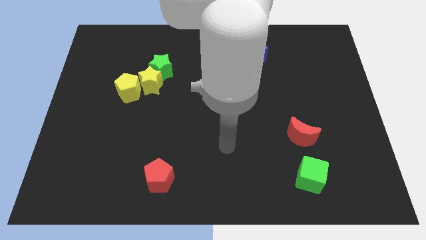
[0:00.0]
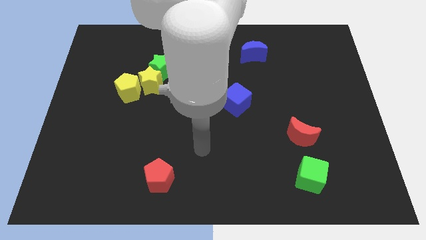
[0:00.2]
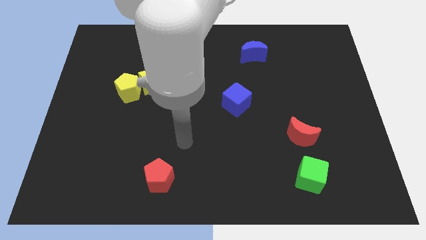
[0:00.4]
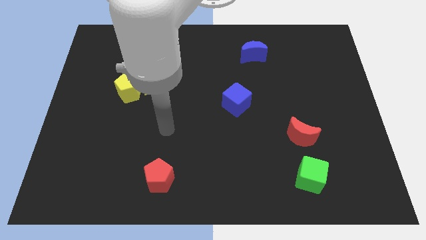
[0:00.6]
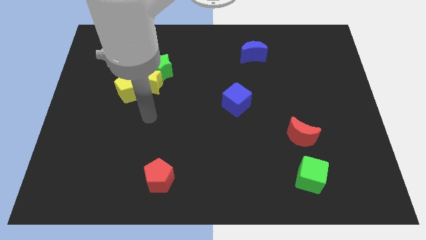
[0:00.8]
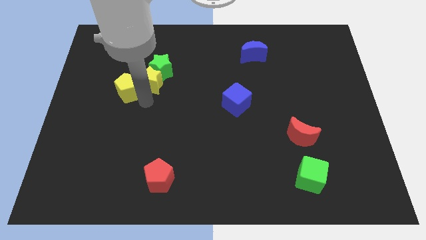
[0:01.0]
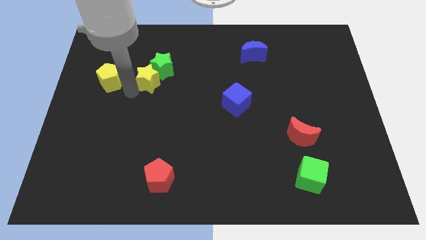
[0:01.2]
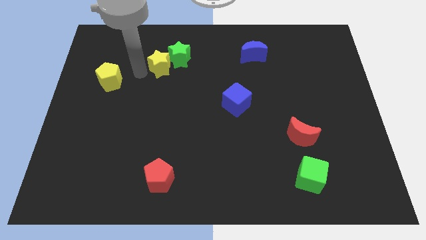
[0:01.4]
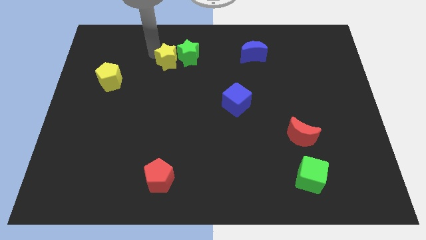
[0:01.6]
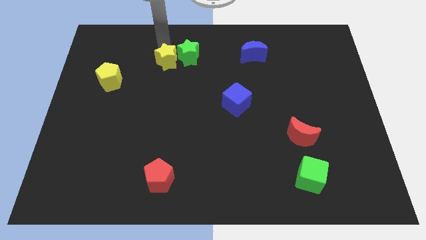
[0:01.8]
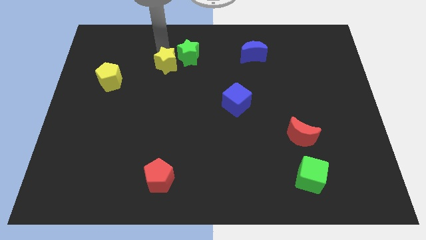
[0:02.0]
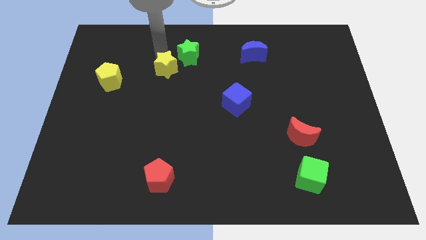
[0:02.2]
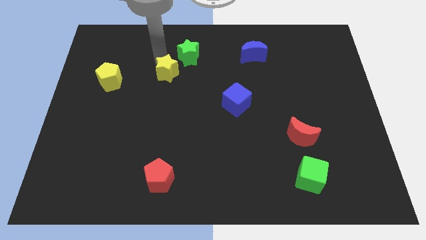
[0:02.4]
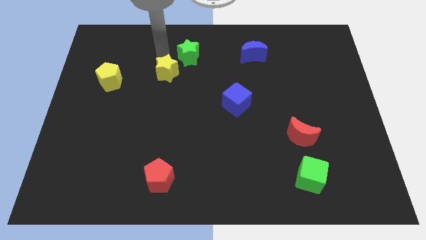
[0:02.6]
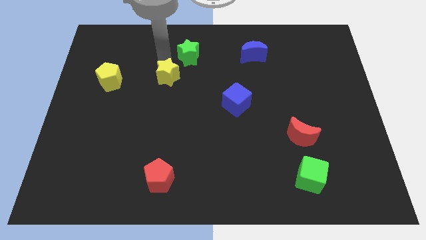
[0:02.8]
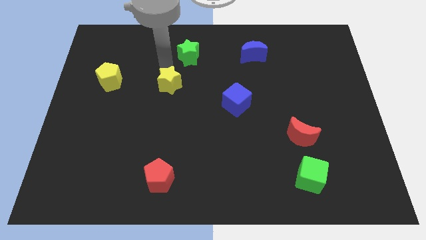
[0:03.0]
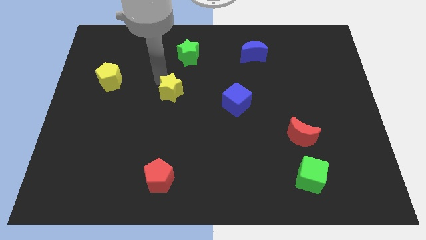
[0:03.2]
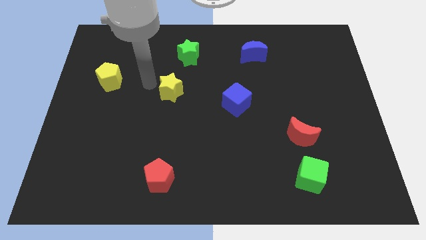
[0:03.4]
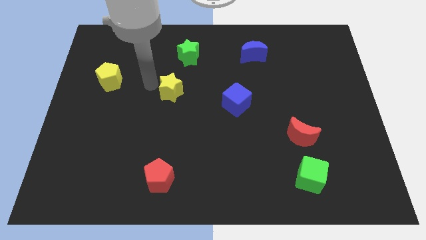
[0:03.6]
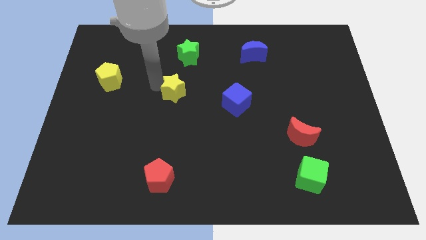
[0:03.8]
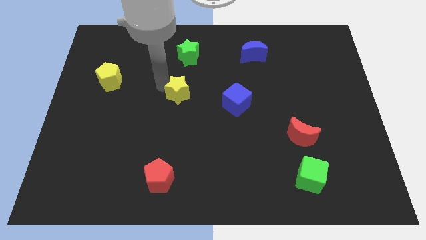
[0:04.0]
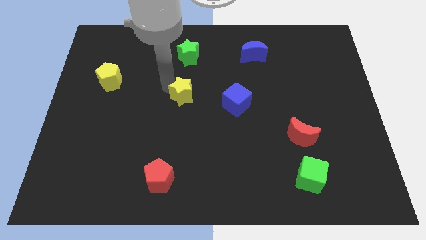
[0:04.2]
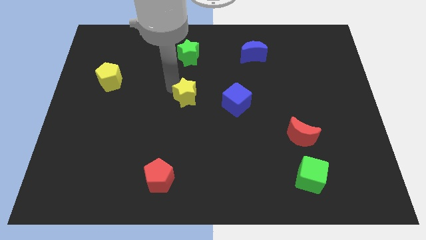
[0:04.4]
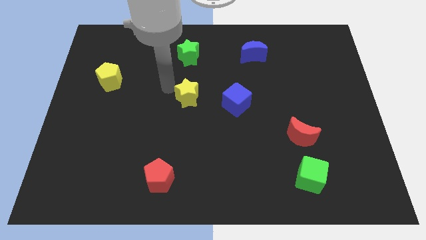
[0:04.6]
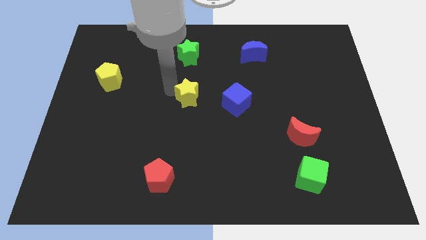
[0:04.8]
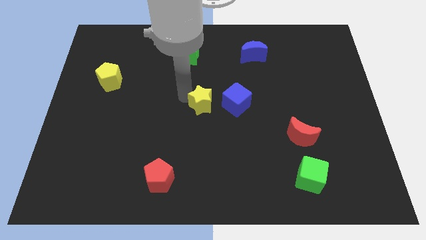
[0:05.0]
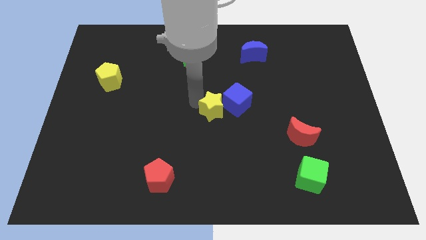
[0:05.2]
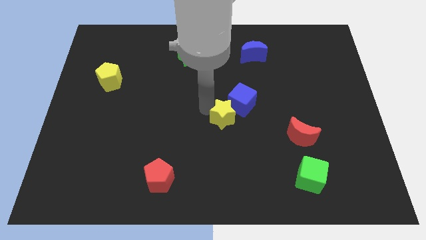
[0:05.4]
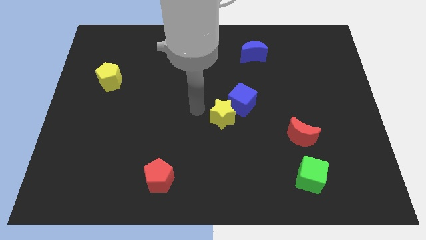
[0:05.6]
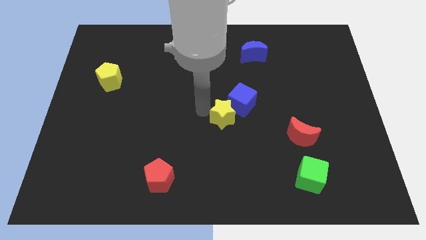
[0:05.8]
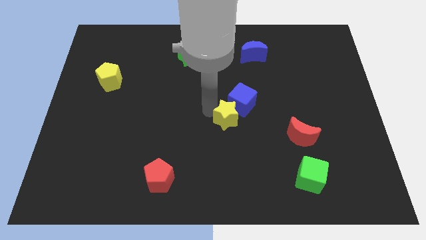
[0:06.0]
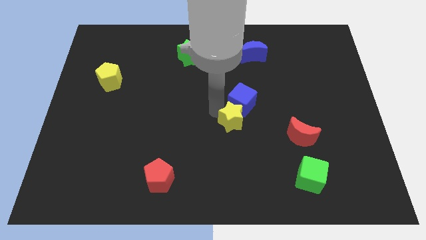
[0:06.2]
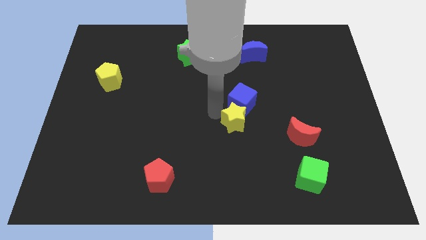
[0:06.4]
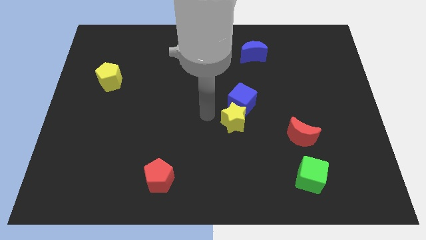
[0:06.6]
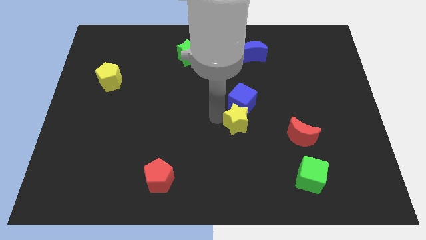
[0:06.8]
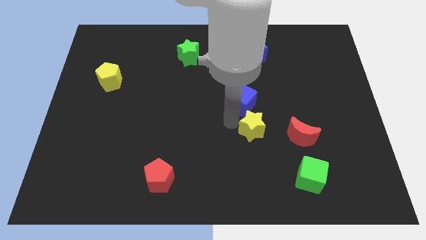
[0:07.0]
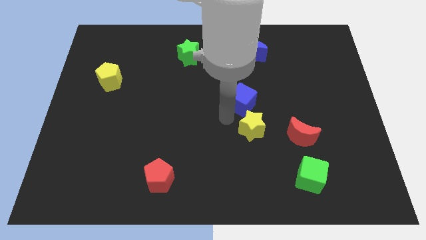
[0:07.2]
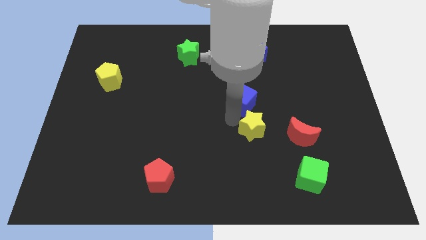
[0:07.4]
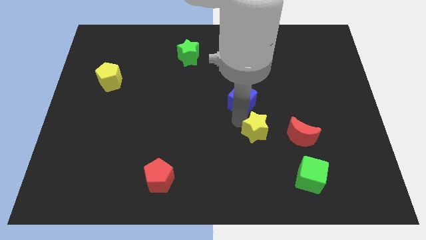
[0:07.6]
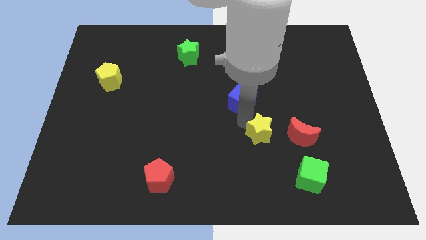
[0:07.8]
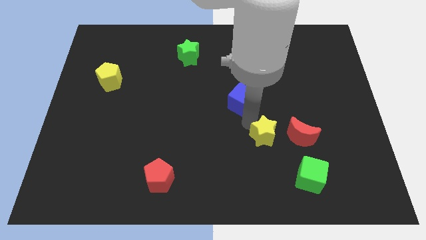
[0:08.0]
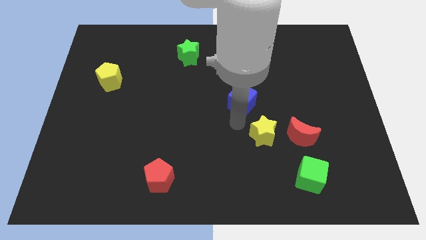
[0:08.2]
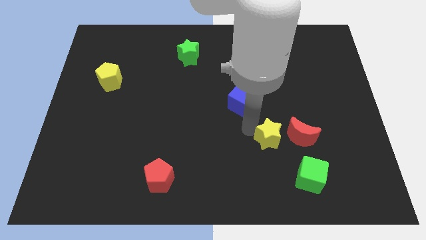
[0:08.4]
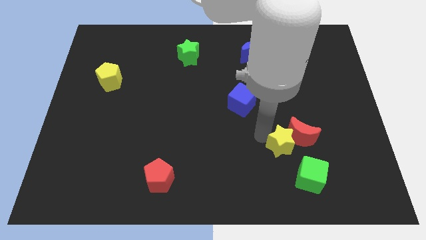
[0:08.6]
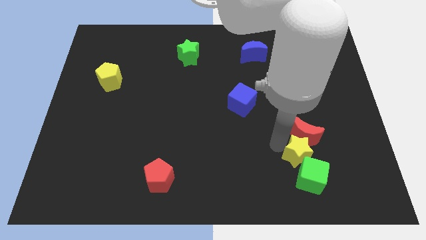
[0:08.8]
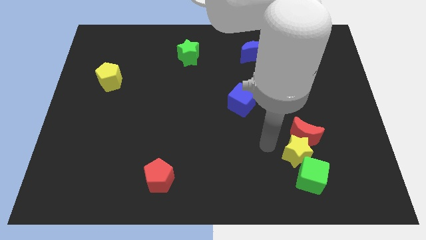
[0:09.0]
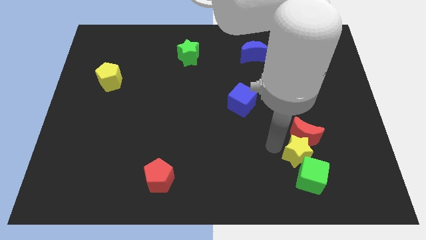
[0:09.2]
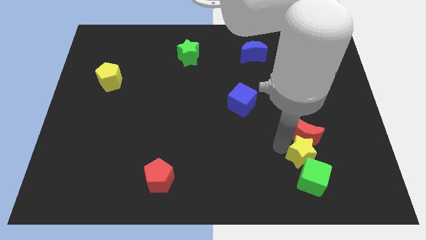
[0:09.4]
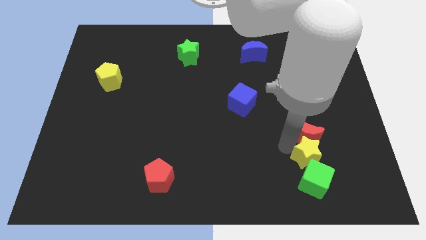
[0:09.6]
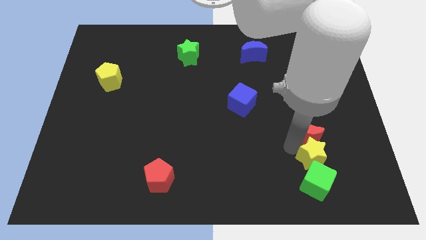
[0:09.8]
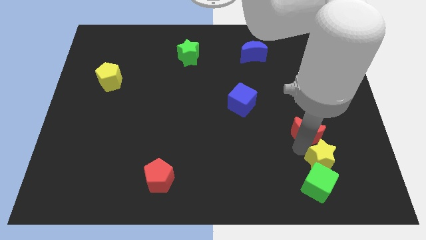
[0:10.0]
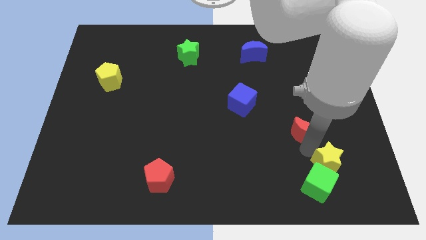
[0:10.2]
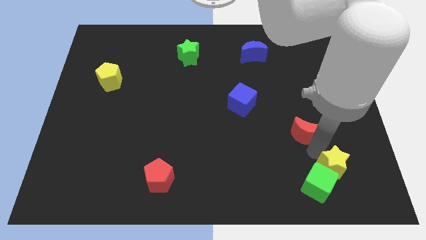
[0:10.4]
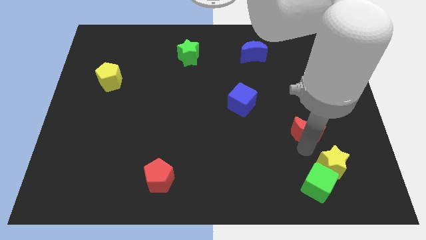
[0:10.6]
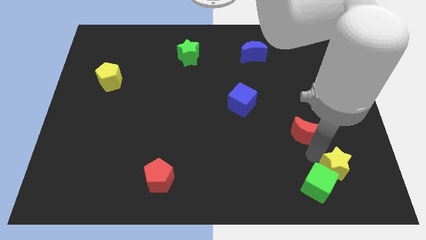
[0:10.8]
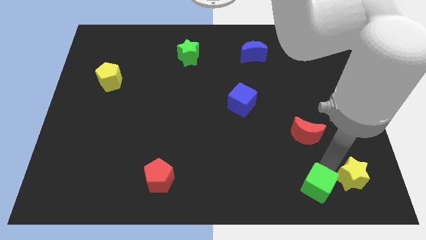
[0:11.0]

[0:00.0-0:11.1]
slide the yellow star to the bottom right

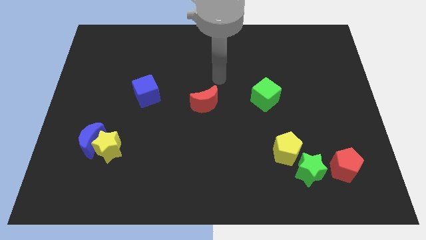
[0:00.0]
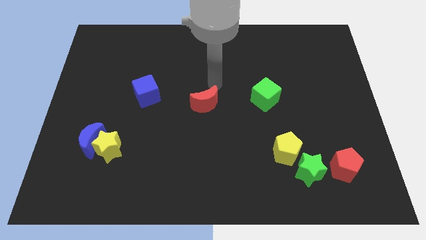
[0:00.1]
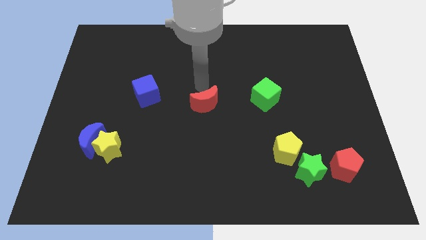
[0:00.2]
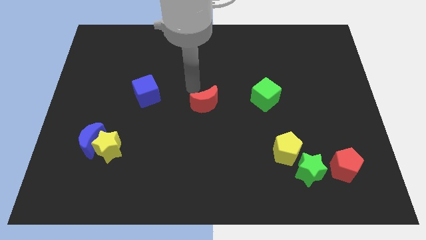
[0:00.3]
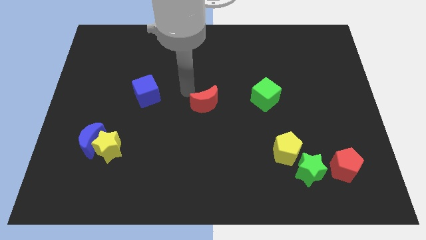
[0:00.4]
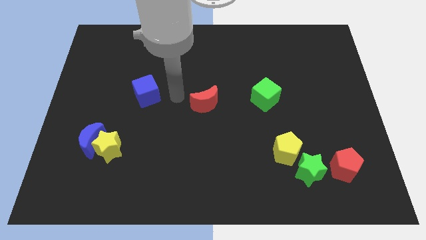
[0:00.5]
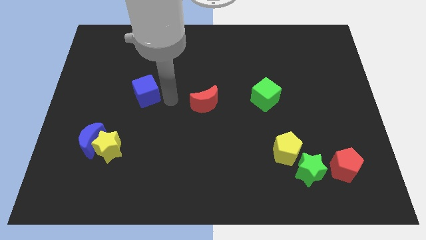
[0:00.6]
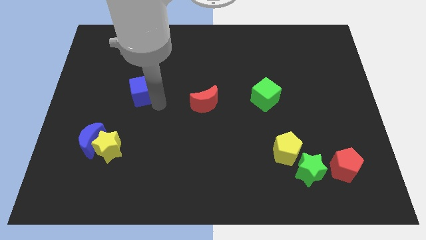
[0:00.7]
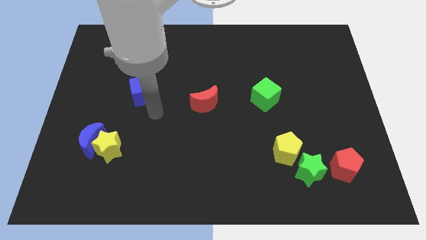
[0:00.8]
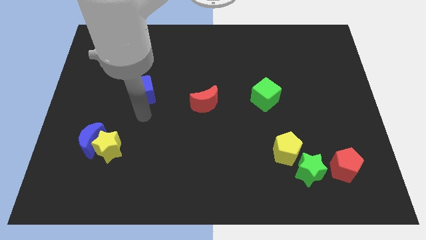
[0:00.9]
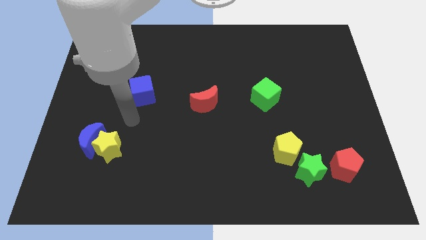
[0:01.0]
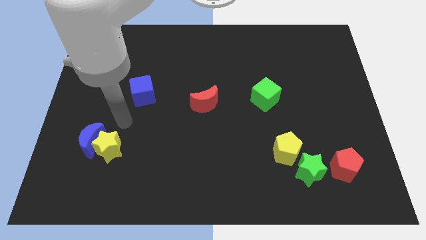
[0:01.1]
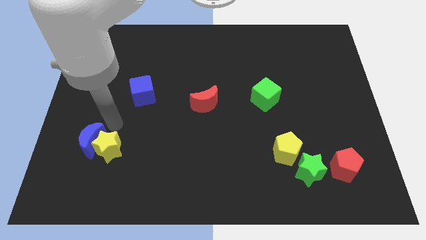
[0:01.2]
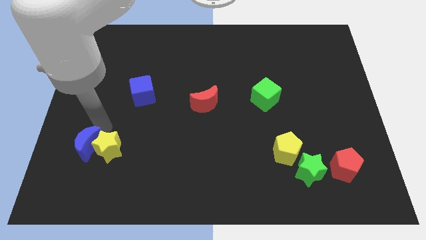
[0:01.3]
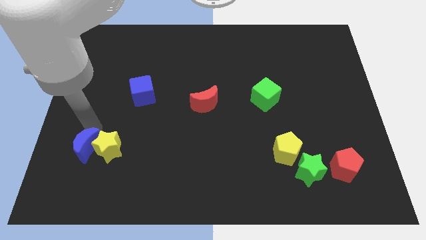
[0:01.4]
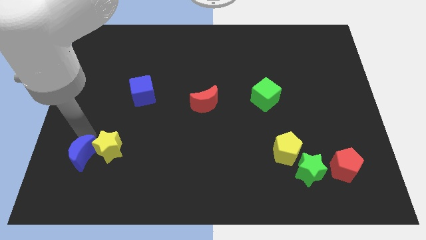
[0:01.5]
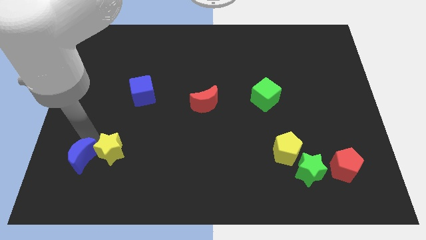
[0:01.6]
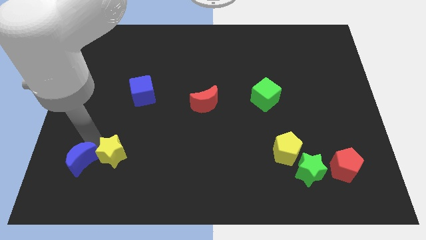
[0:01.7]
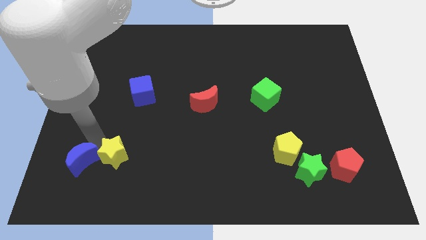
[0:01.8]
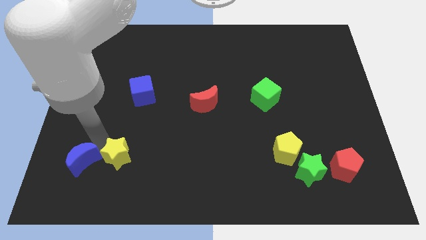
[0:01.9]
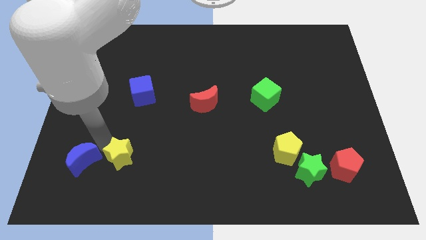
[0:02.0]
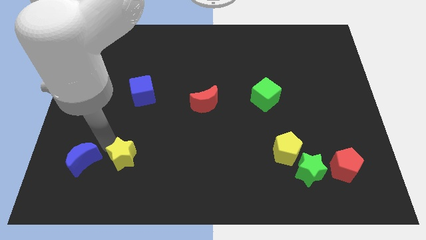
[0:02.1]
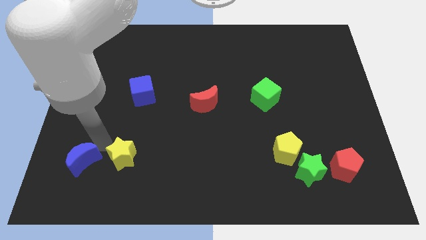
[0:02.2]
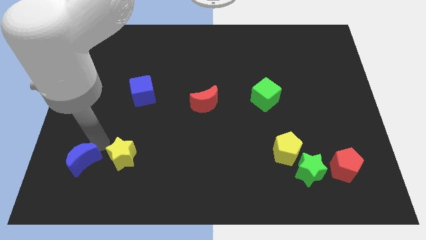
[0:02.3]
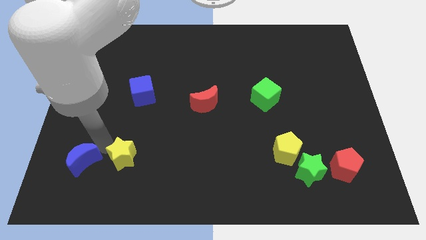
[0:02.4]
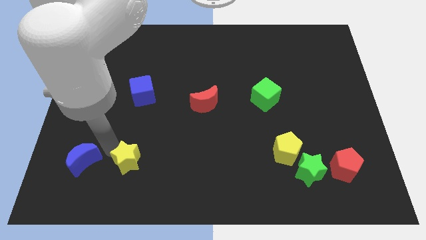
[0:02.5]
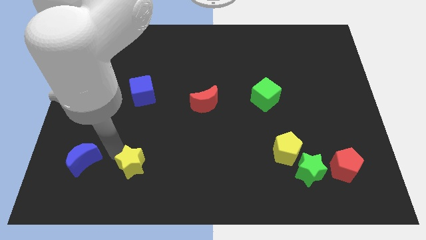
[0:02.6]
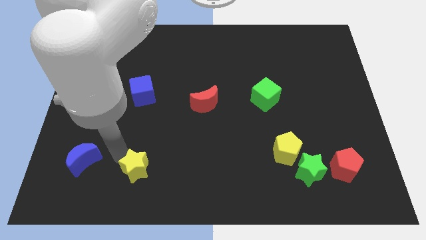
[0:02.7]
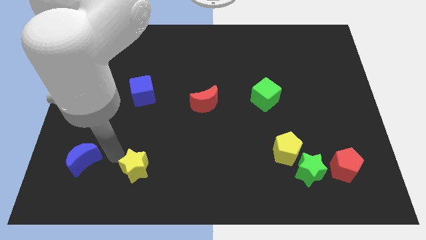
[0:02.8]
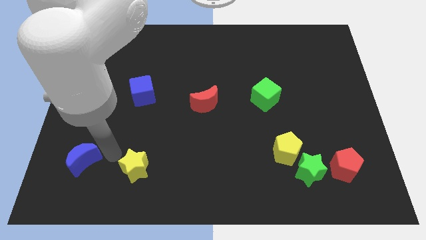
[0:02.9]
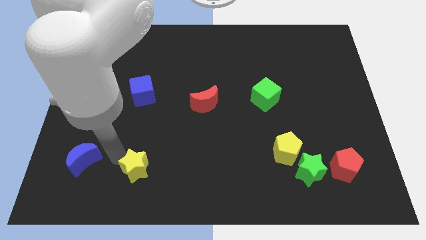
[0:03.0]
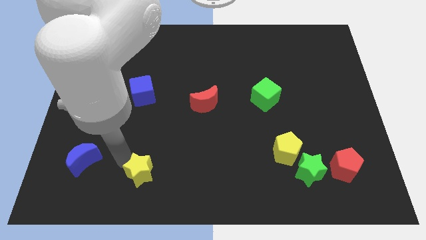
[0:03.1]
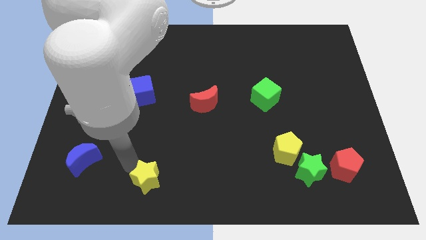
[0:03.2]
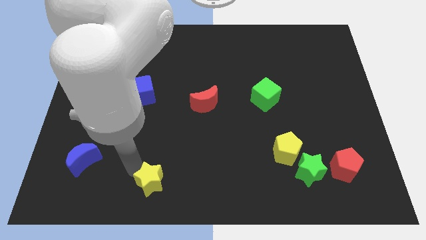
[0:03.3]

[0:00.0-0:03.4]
push the yellow star to the bottom
